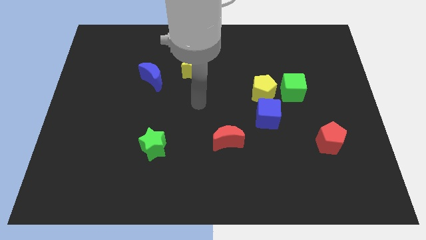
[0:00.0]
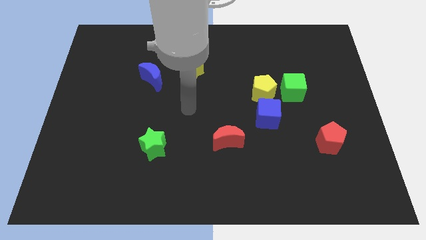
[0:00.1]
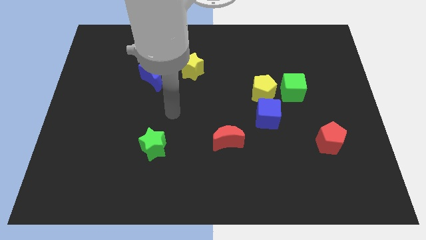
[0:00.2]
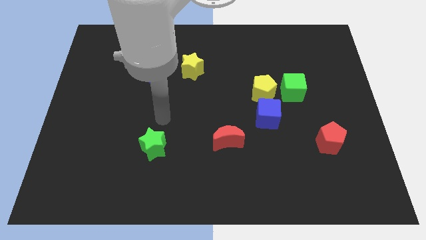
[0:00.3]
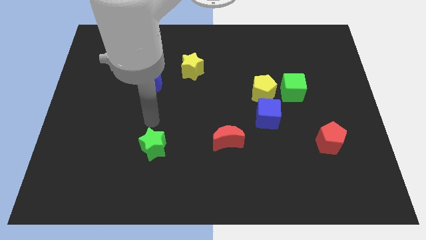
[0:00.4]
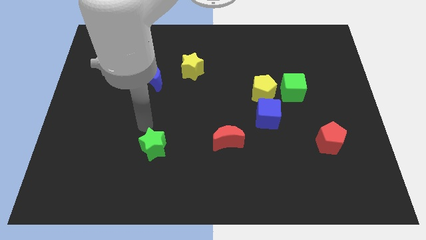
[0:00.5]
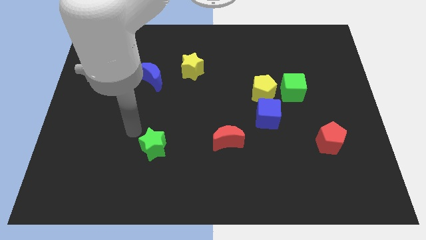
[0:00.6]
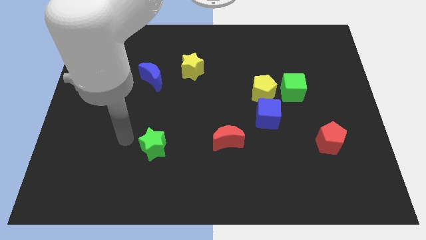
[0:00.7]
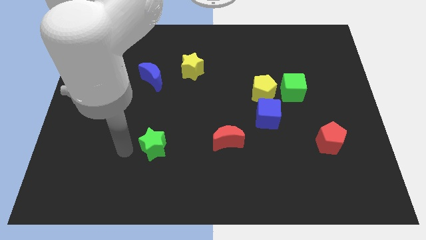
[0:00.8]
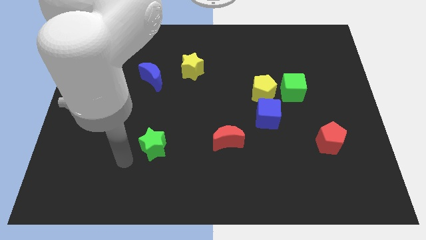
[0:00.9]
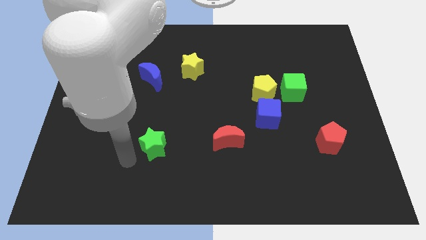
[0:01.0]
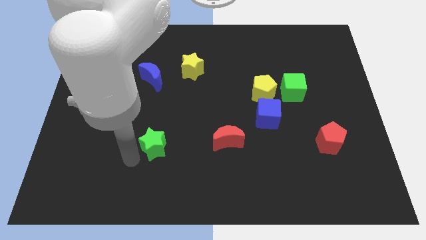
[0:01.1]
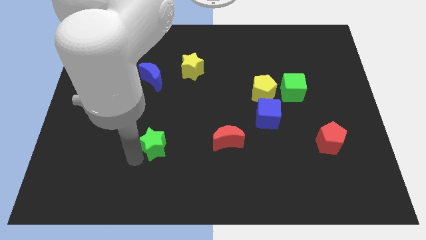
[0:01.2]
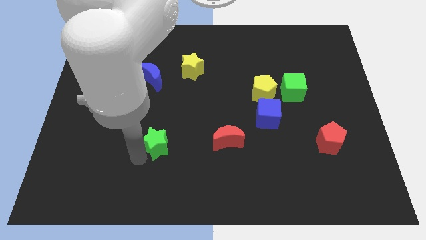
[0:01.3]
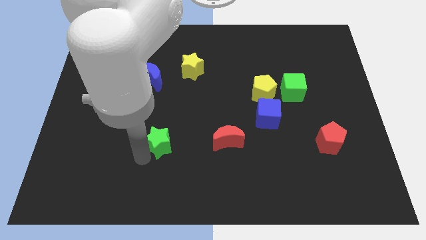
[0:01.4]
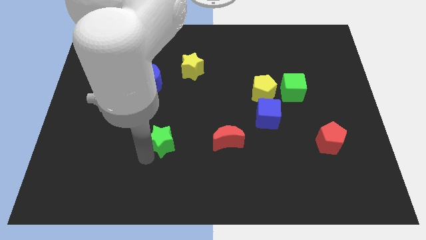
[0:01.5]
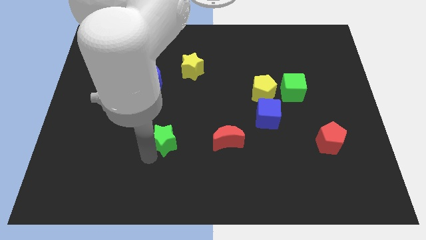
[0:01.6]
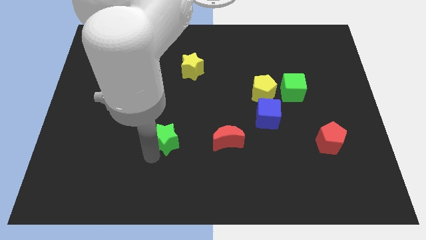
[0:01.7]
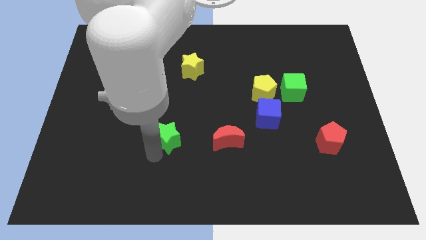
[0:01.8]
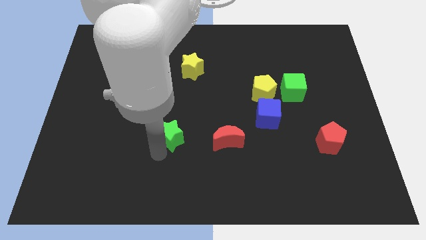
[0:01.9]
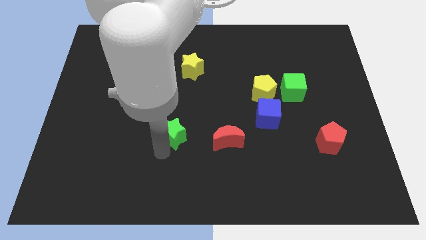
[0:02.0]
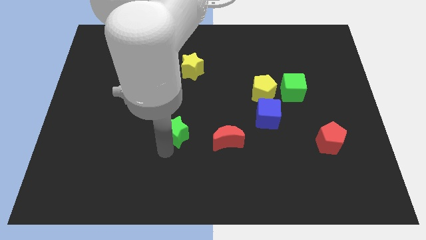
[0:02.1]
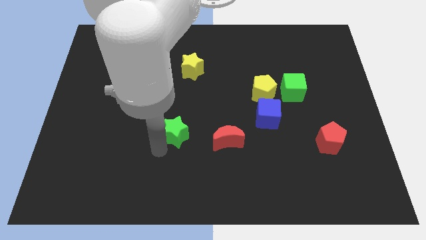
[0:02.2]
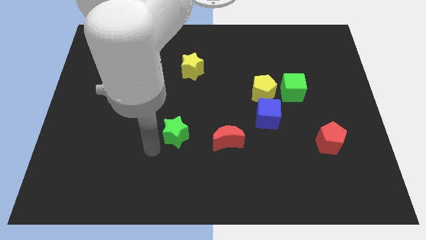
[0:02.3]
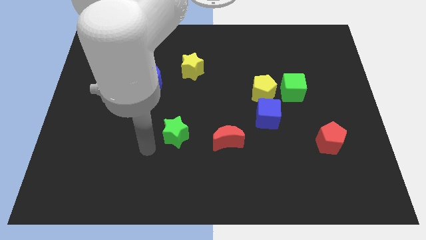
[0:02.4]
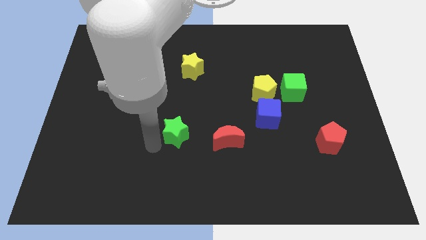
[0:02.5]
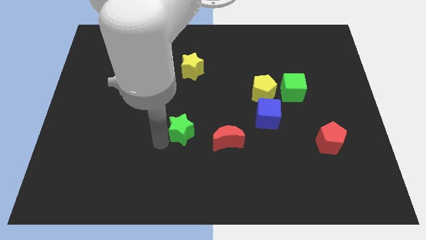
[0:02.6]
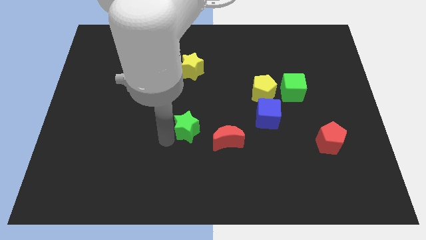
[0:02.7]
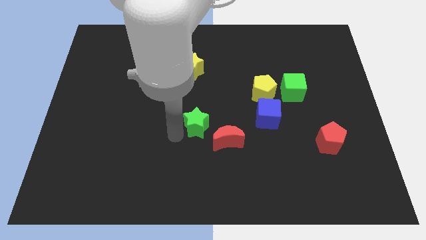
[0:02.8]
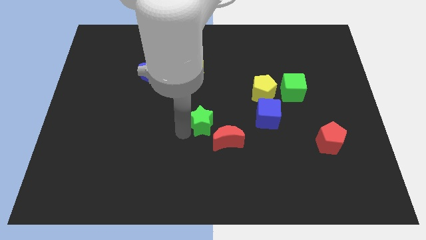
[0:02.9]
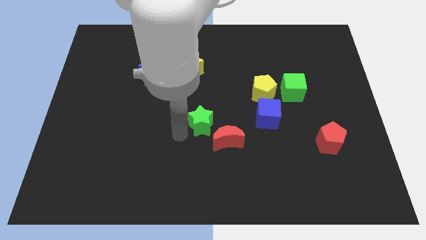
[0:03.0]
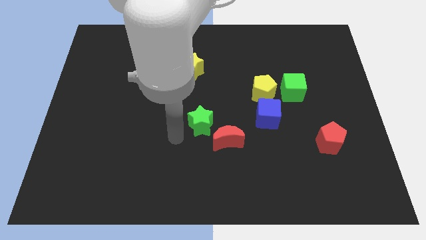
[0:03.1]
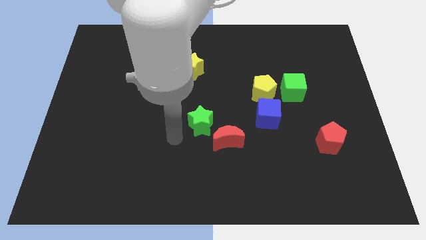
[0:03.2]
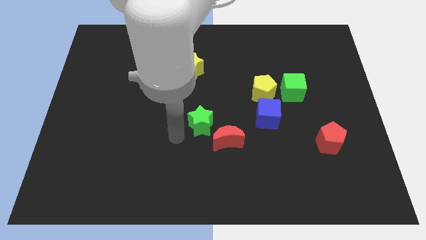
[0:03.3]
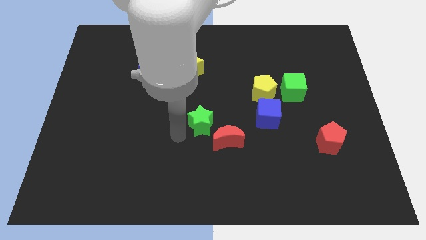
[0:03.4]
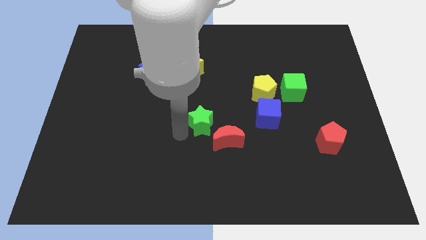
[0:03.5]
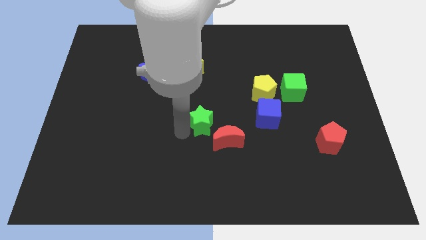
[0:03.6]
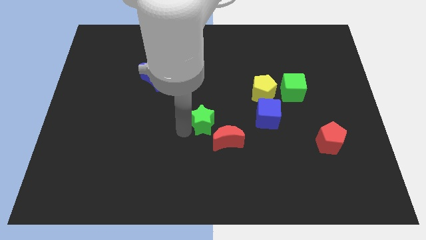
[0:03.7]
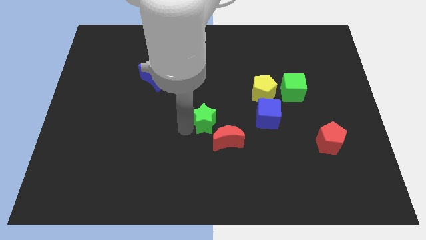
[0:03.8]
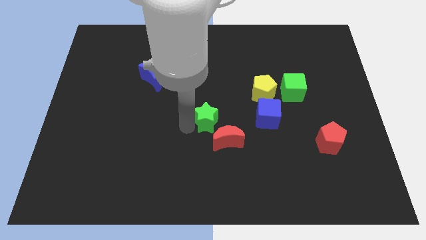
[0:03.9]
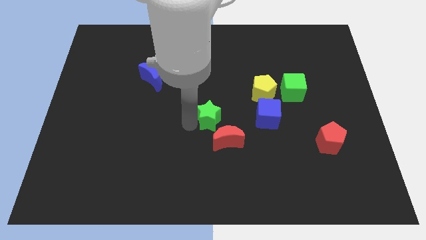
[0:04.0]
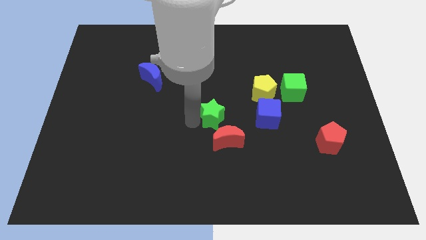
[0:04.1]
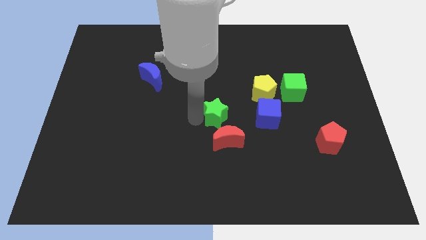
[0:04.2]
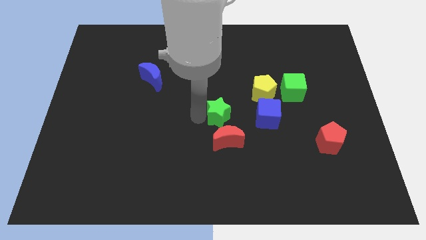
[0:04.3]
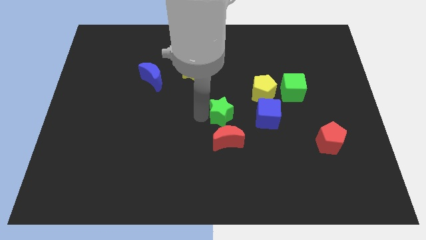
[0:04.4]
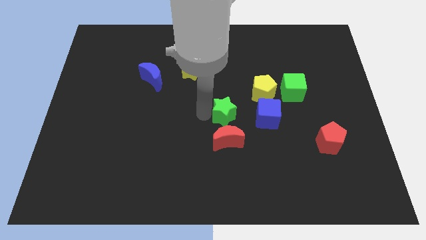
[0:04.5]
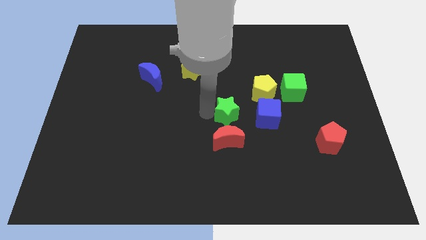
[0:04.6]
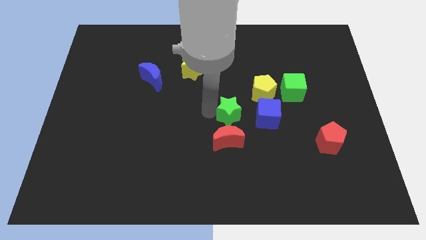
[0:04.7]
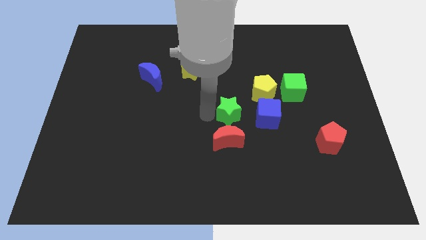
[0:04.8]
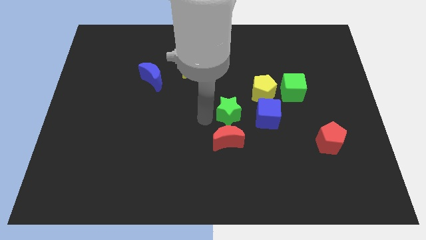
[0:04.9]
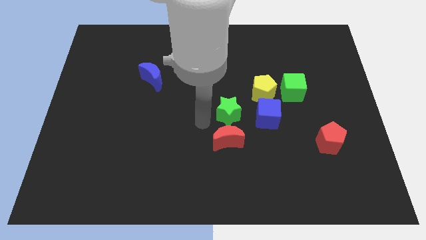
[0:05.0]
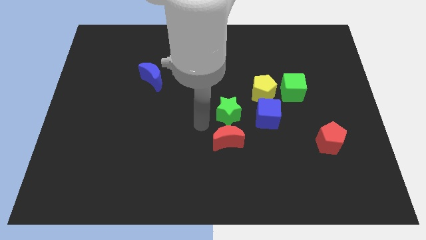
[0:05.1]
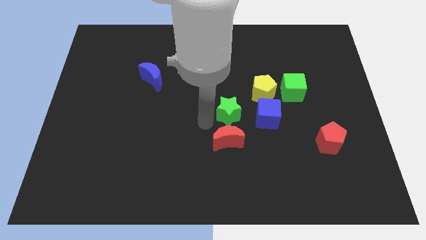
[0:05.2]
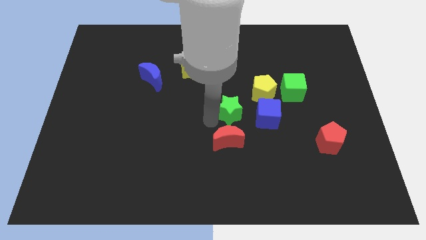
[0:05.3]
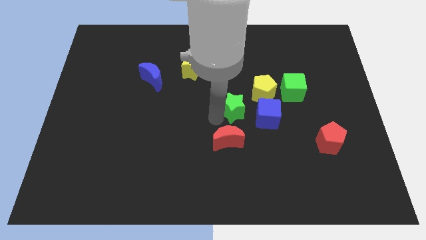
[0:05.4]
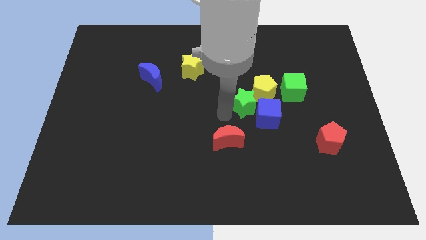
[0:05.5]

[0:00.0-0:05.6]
put the green star next to the yellow pentagon

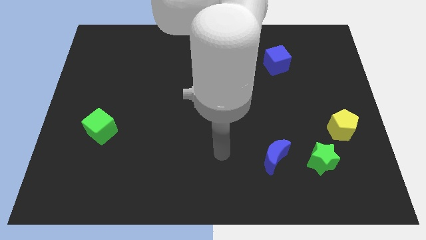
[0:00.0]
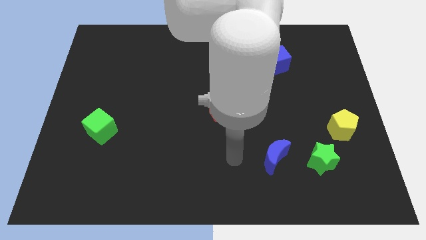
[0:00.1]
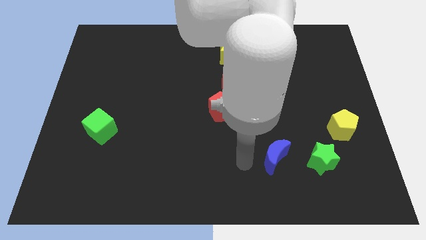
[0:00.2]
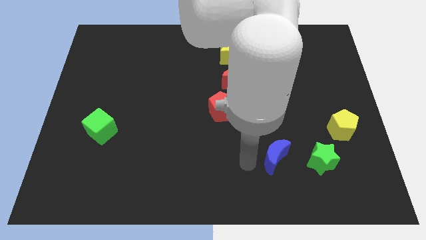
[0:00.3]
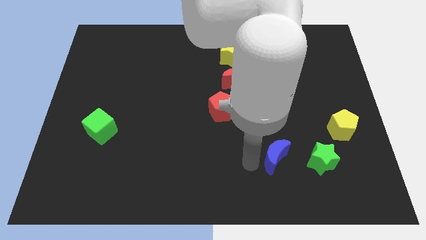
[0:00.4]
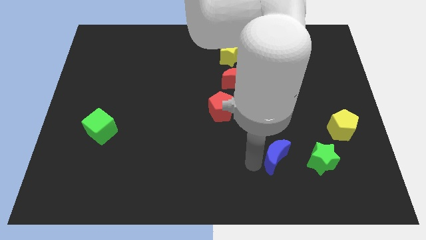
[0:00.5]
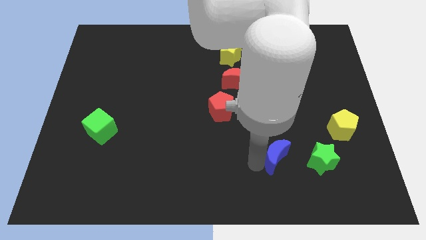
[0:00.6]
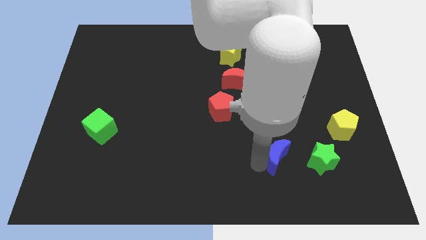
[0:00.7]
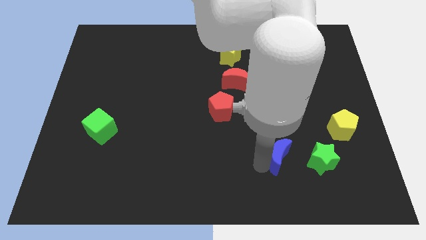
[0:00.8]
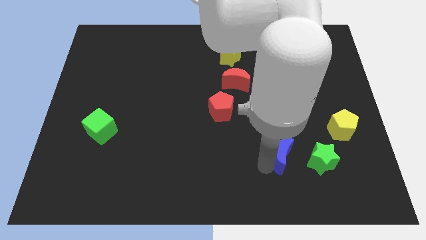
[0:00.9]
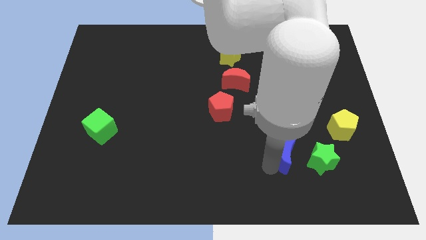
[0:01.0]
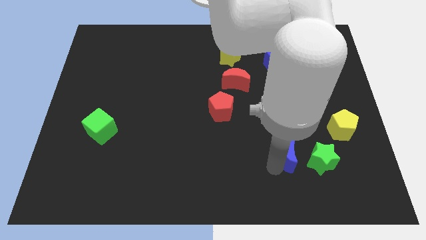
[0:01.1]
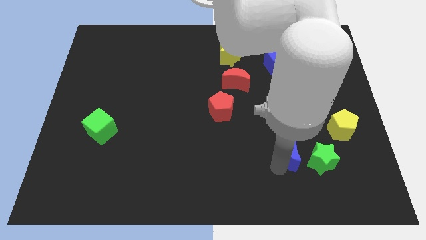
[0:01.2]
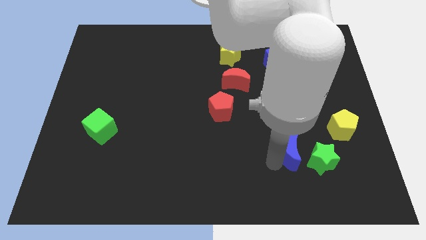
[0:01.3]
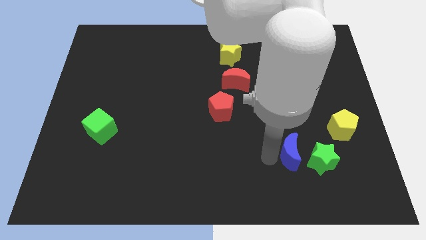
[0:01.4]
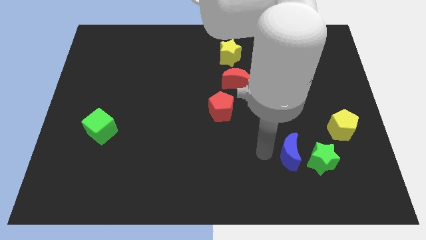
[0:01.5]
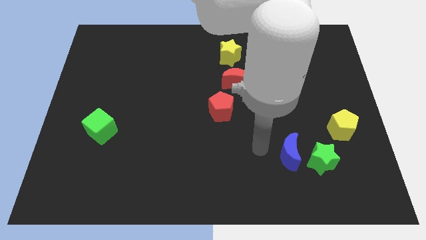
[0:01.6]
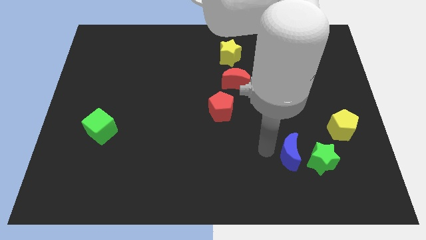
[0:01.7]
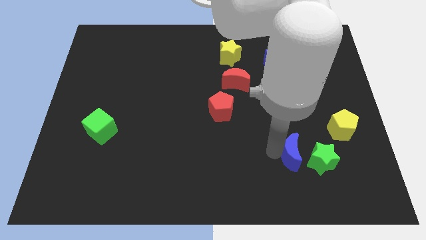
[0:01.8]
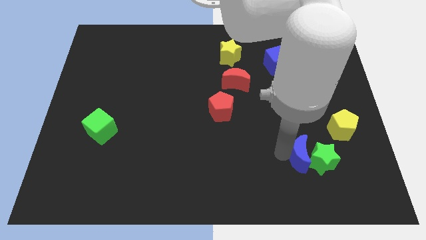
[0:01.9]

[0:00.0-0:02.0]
put the blue moon to the green star
